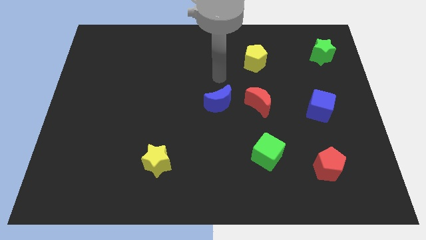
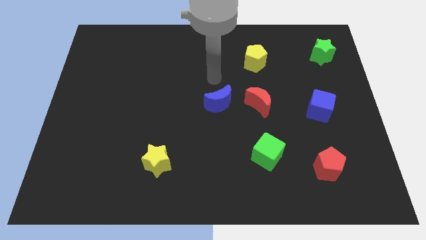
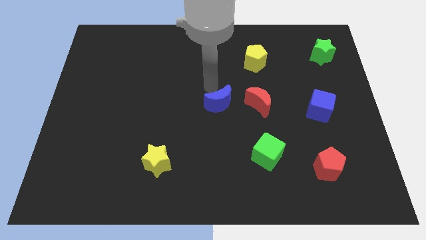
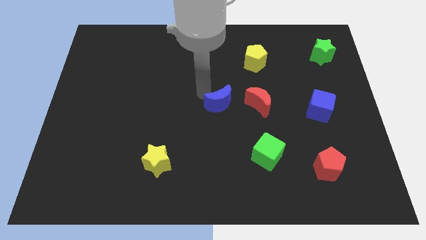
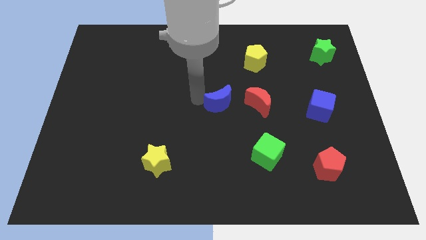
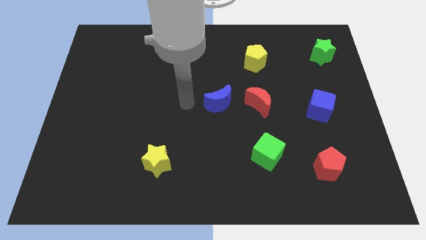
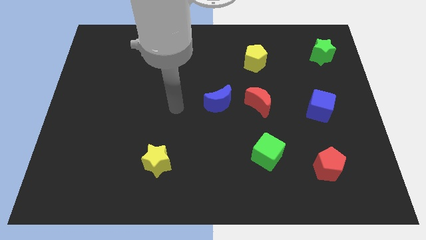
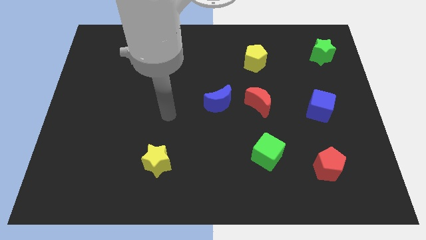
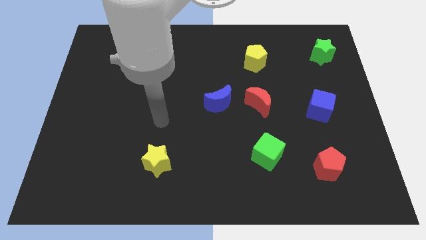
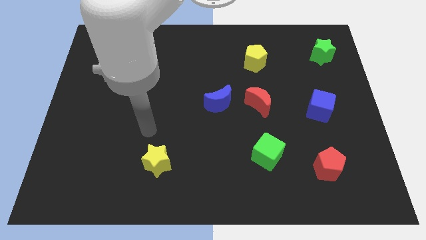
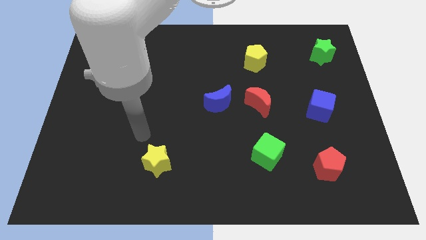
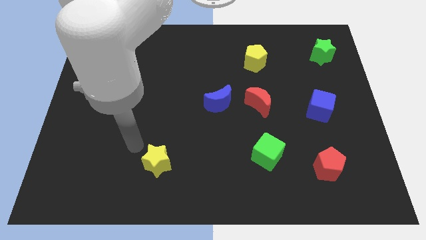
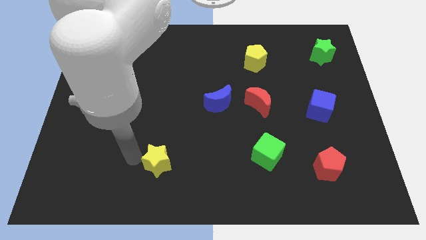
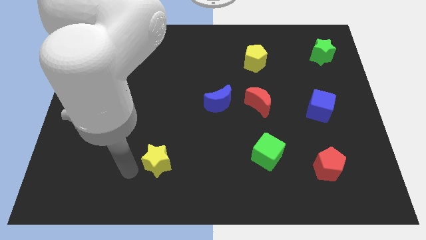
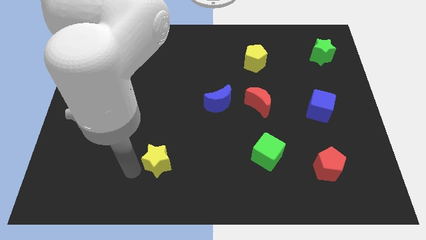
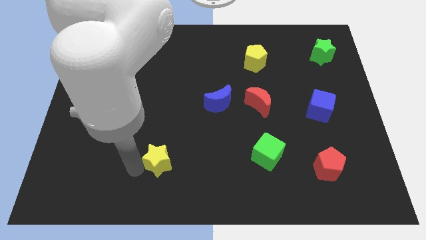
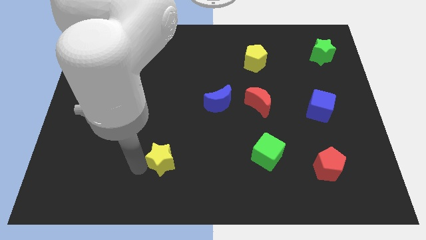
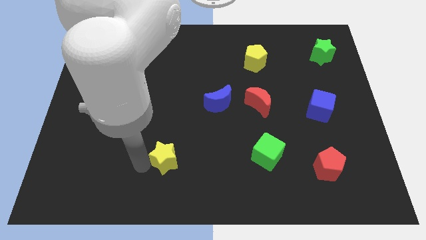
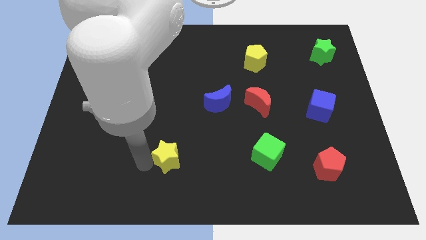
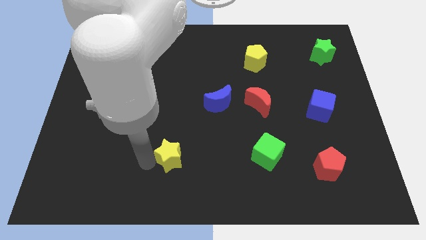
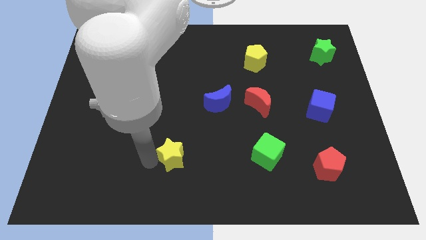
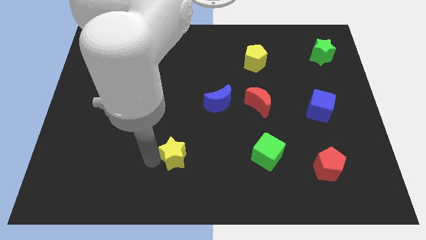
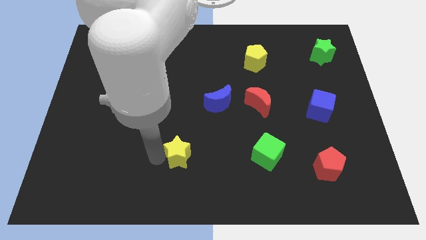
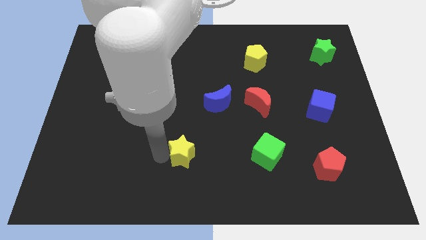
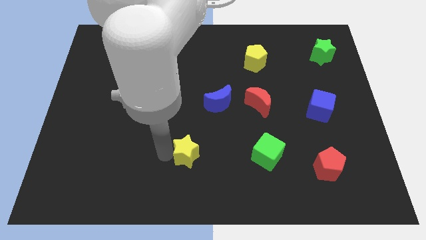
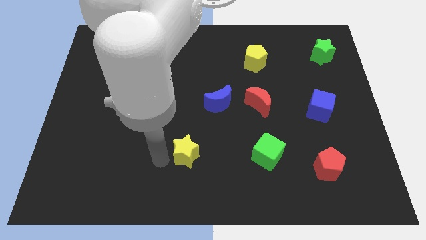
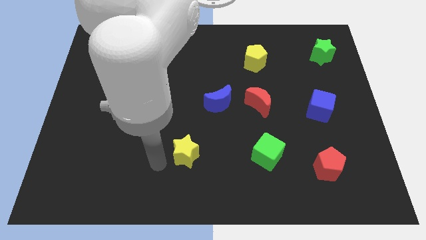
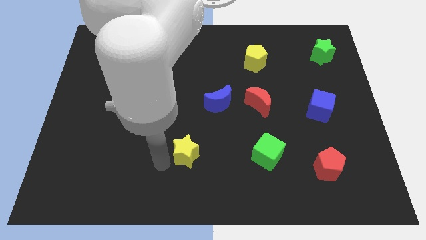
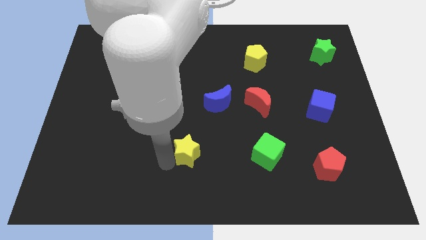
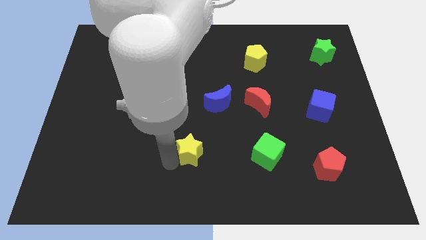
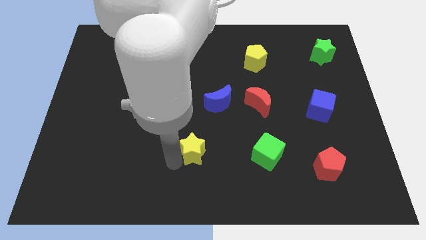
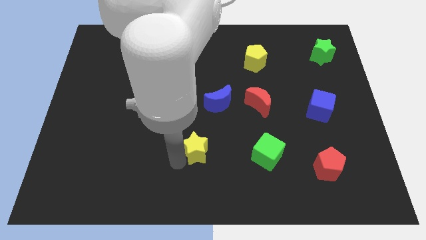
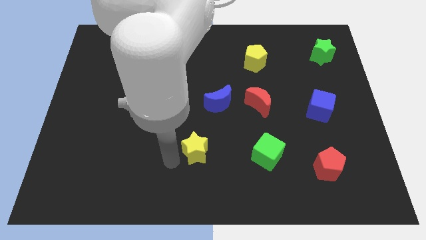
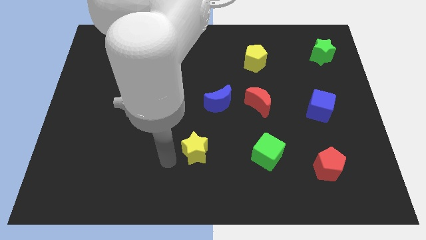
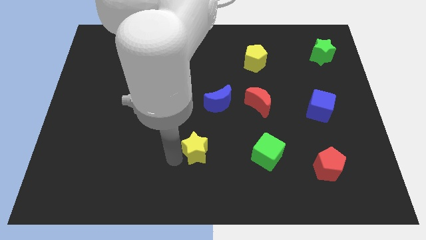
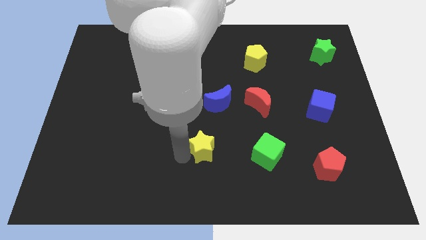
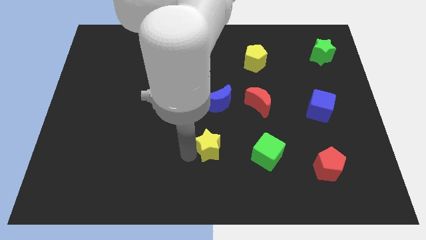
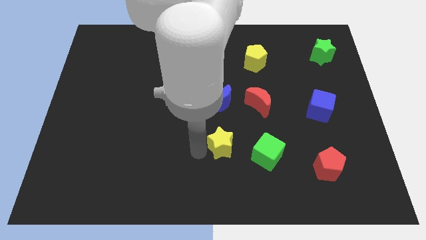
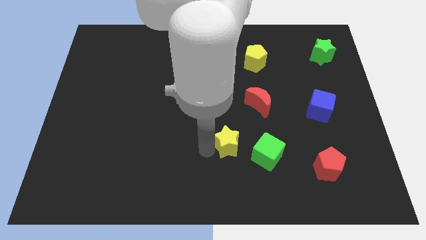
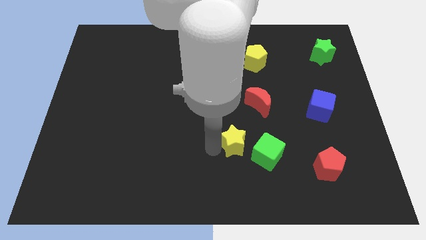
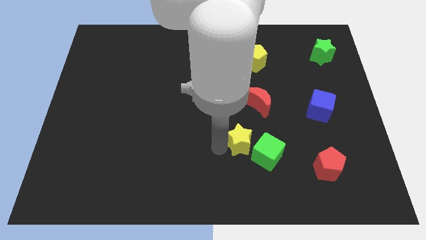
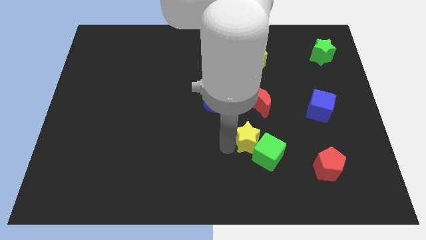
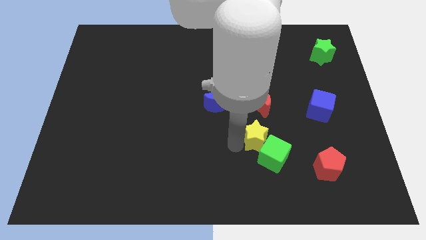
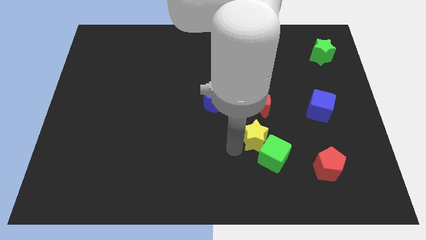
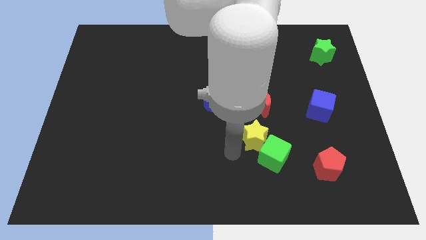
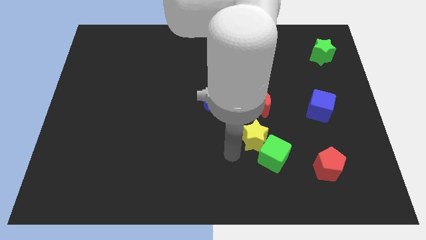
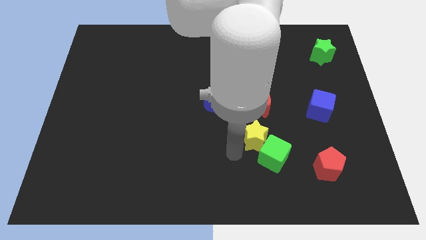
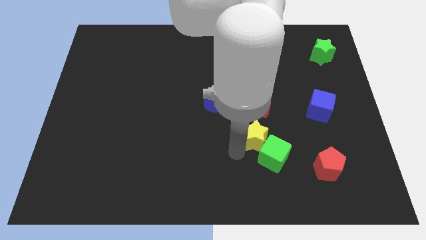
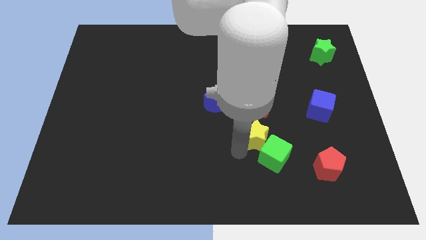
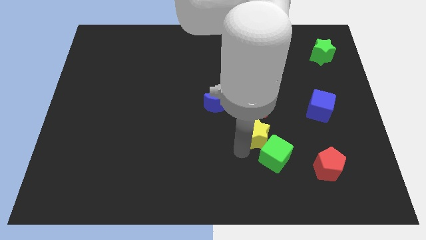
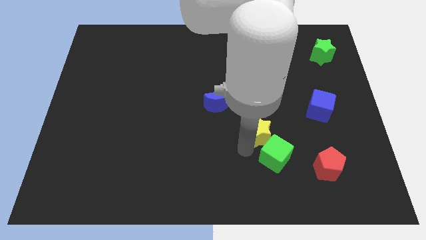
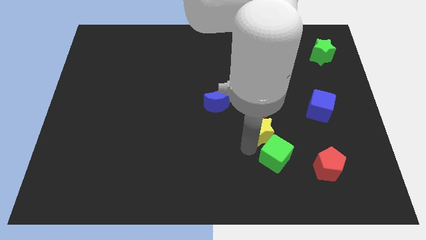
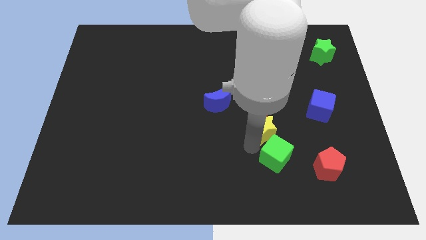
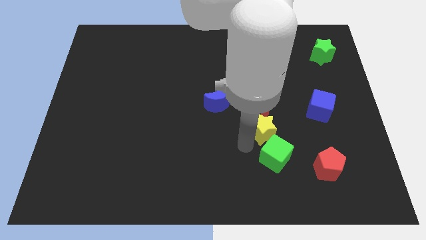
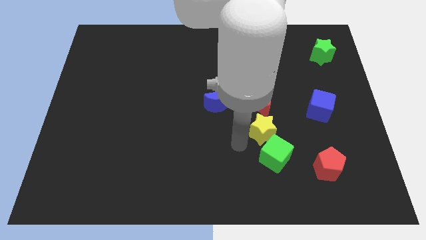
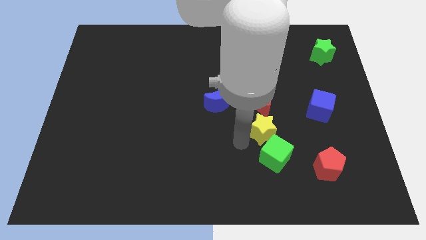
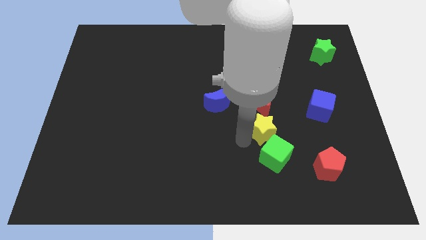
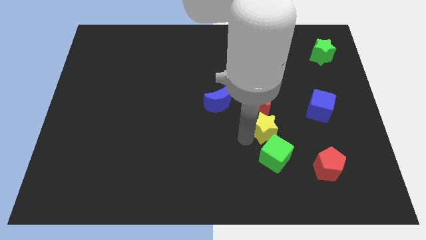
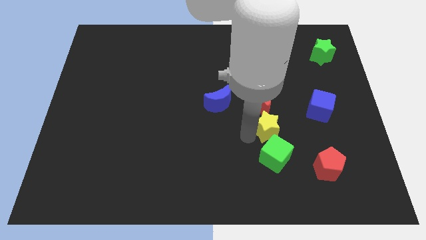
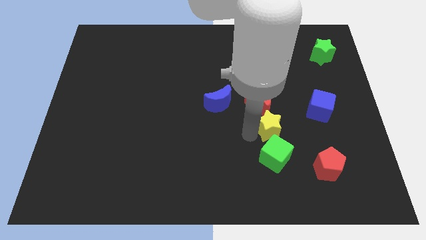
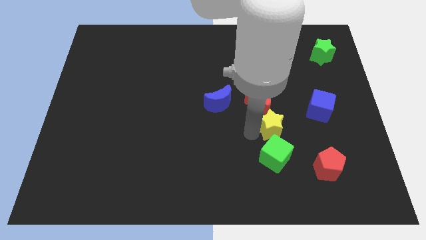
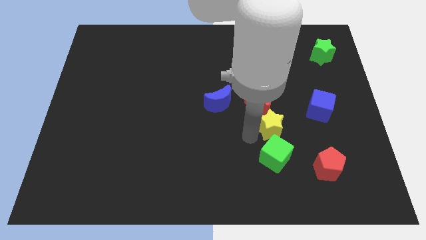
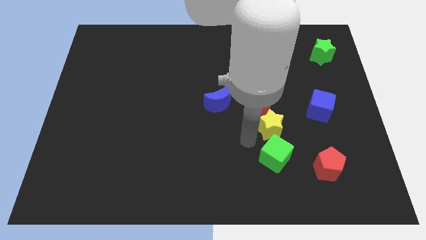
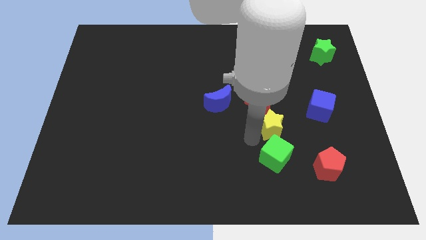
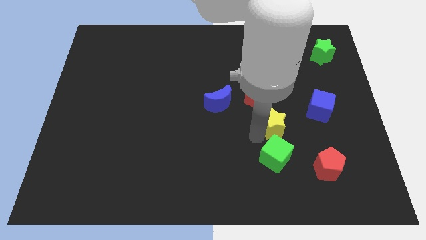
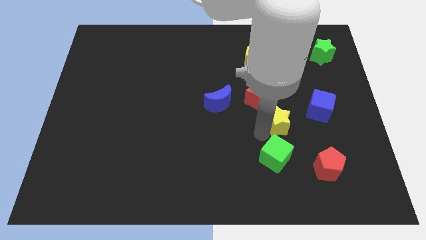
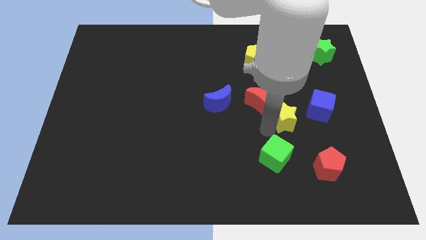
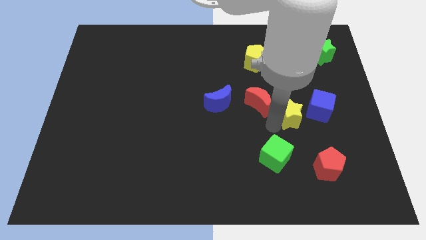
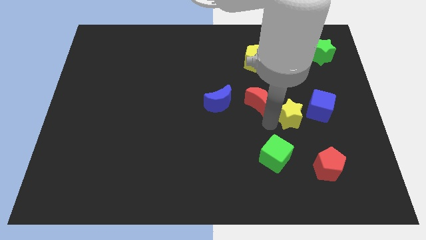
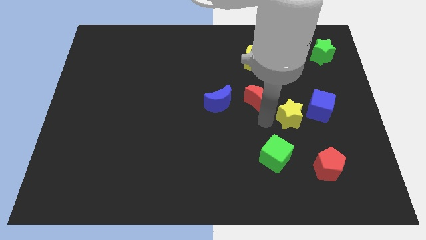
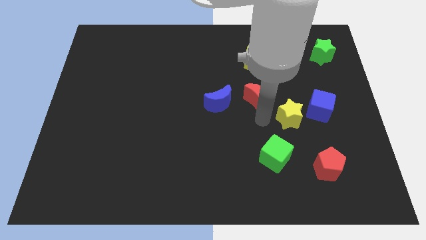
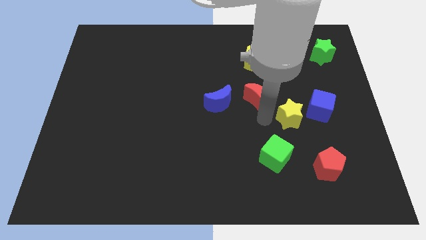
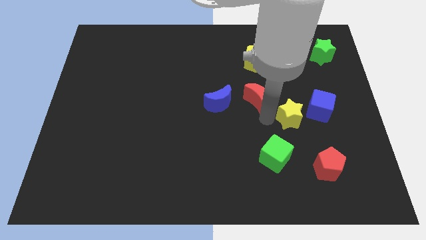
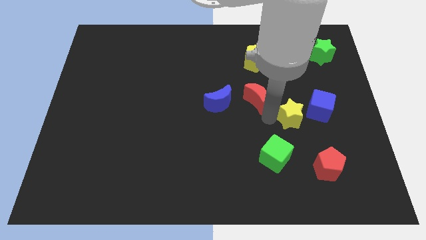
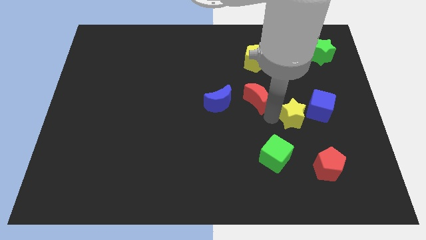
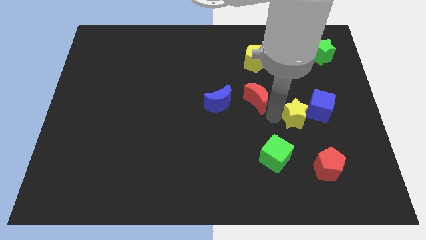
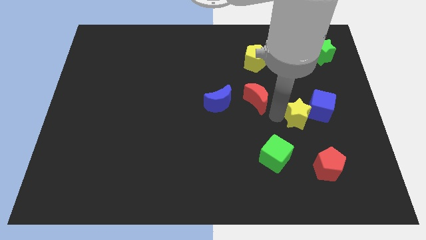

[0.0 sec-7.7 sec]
push the yellow star close to the blue cube
